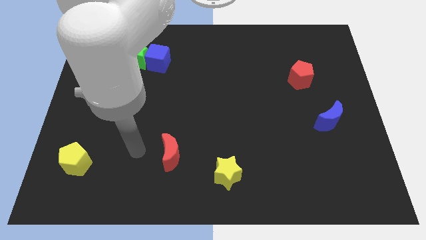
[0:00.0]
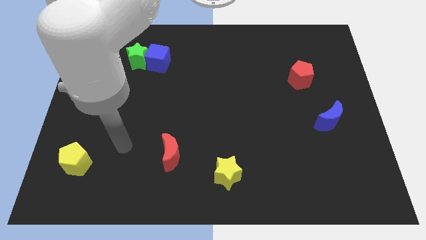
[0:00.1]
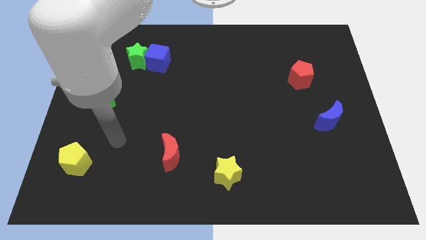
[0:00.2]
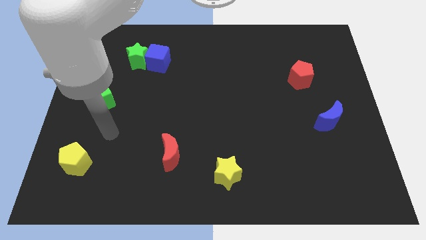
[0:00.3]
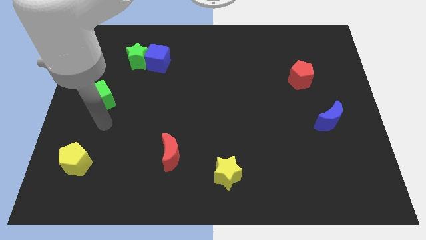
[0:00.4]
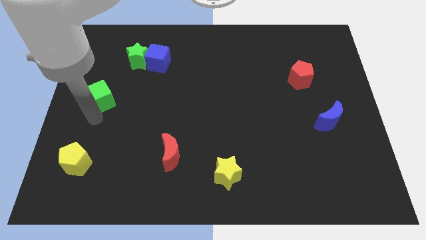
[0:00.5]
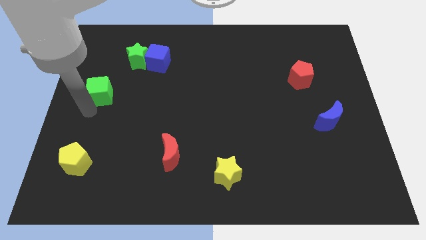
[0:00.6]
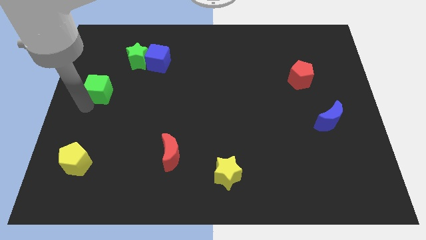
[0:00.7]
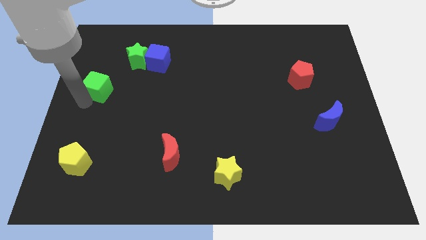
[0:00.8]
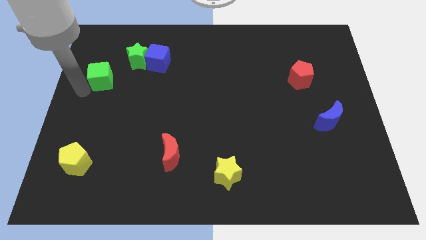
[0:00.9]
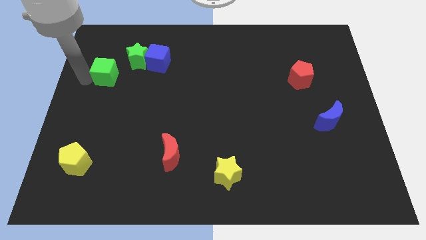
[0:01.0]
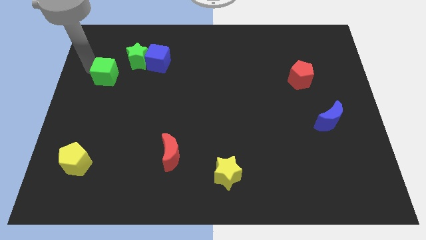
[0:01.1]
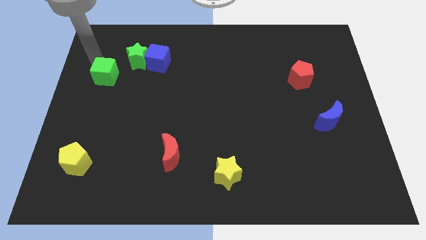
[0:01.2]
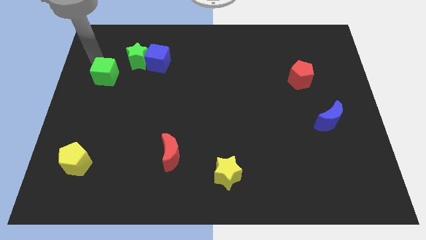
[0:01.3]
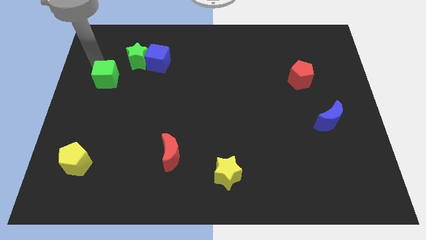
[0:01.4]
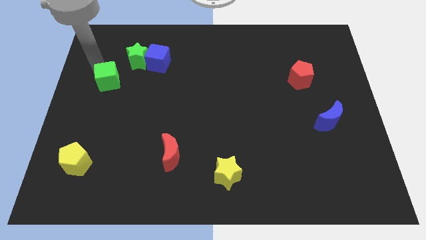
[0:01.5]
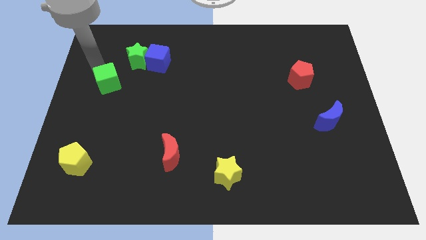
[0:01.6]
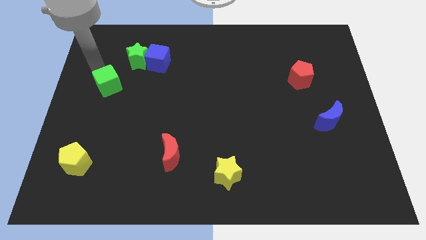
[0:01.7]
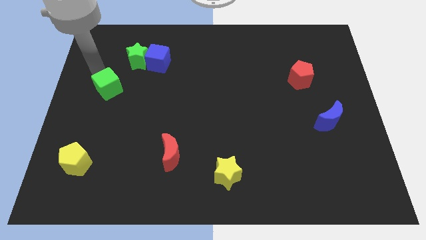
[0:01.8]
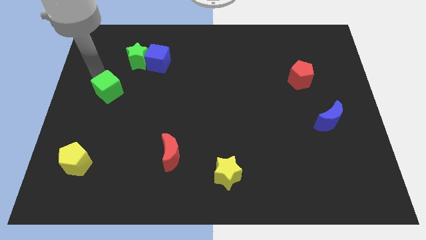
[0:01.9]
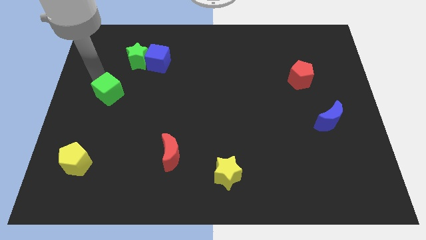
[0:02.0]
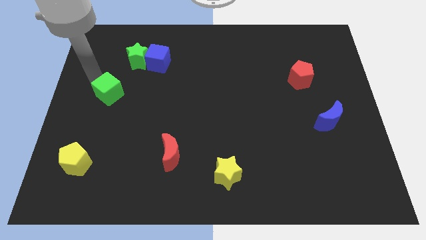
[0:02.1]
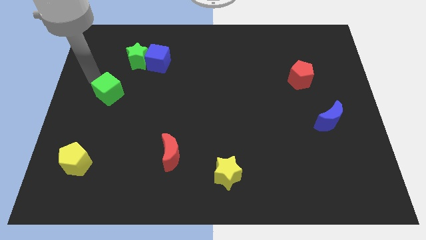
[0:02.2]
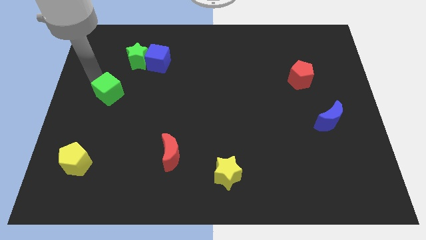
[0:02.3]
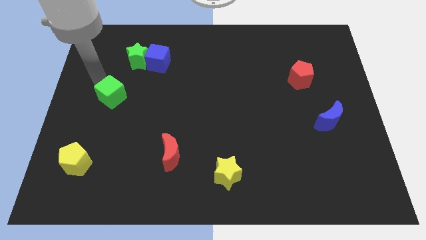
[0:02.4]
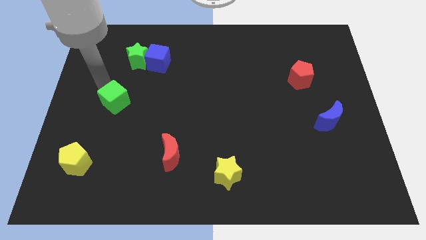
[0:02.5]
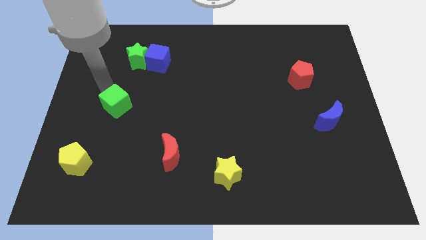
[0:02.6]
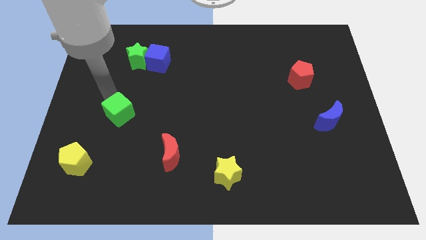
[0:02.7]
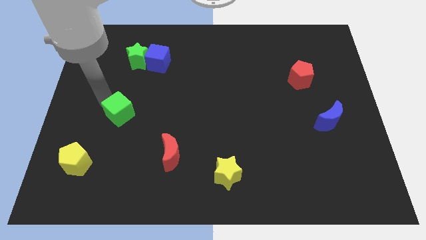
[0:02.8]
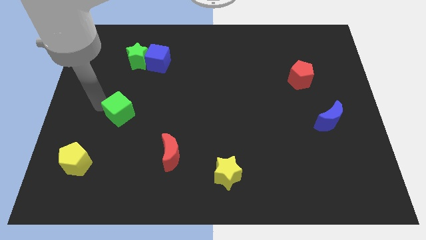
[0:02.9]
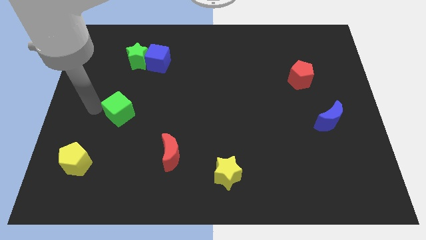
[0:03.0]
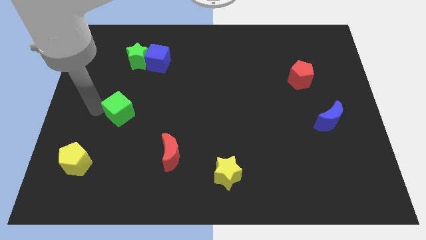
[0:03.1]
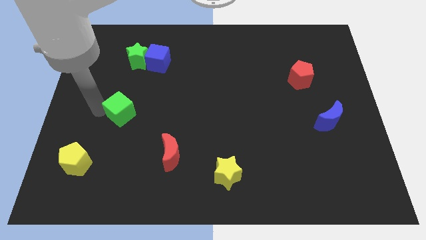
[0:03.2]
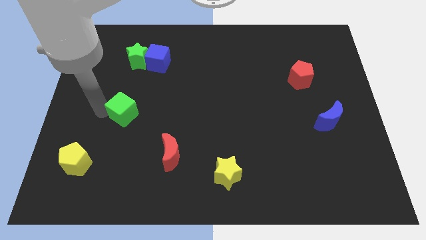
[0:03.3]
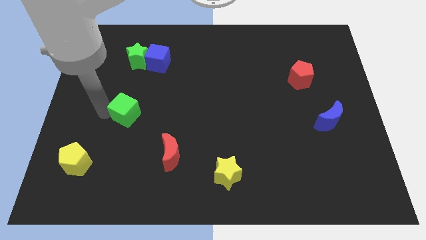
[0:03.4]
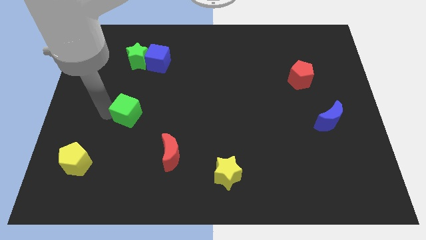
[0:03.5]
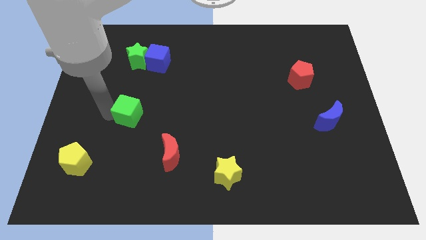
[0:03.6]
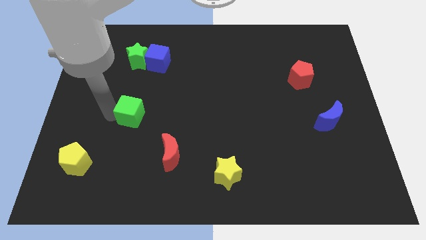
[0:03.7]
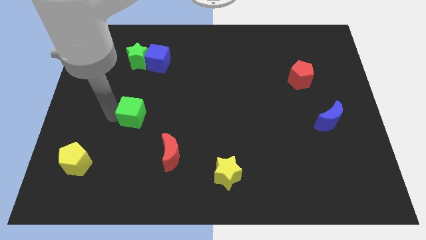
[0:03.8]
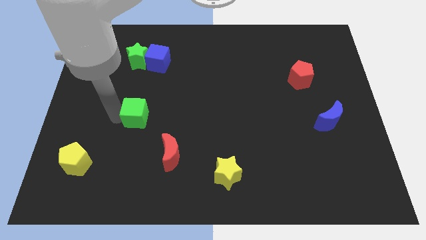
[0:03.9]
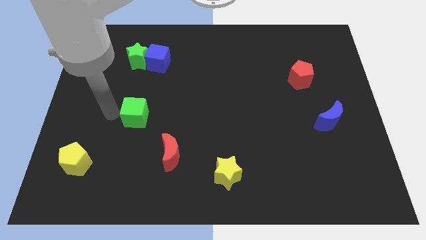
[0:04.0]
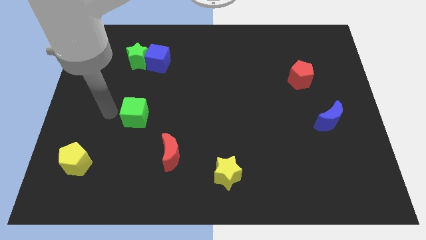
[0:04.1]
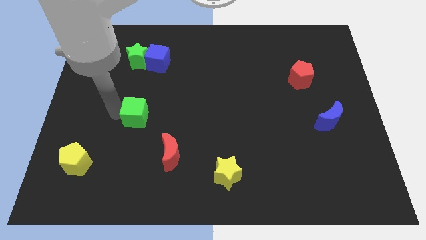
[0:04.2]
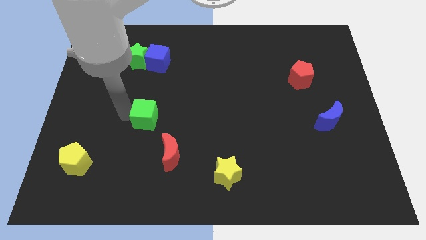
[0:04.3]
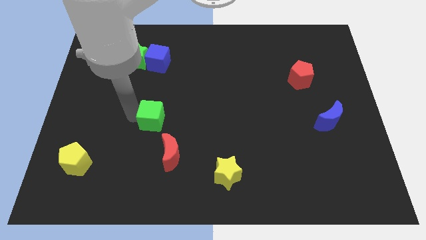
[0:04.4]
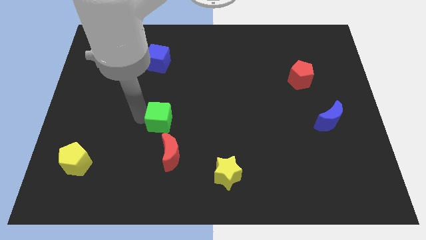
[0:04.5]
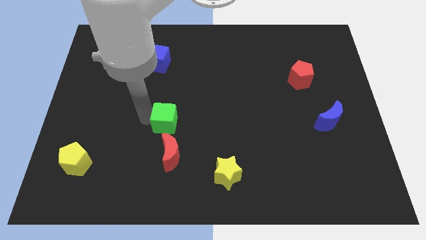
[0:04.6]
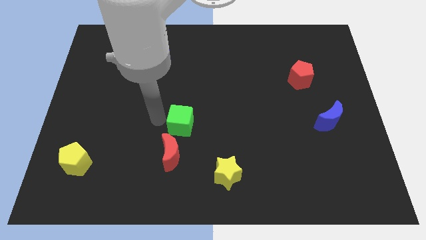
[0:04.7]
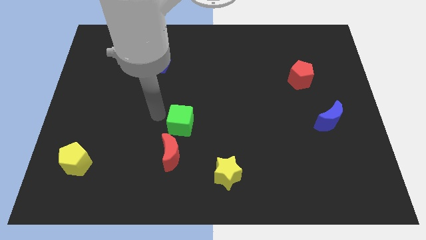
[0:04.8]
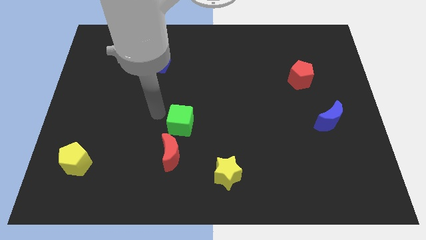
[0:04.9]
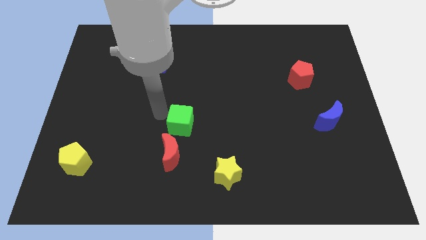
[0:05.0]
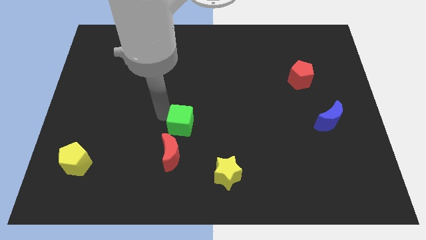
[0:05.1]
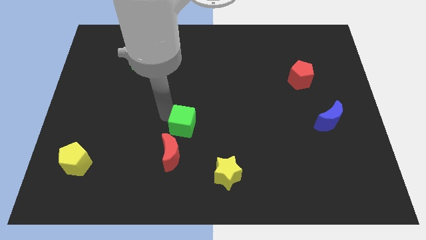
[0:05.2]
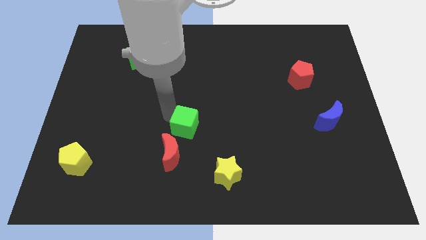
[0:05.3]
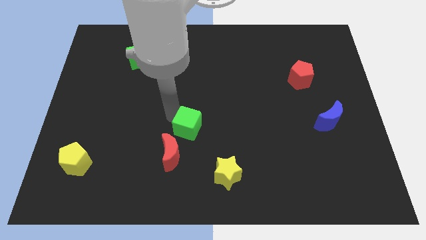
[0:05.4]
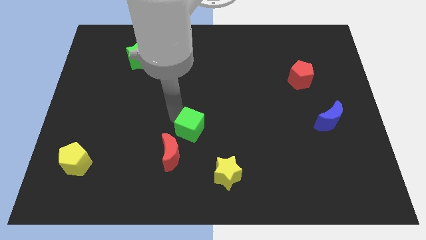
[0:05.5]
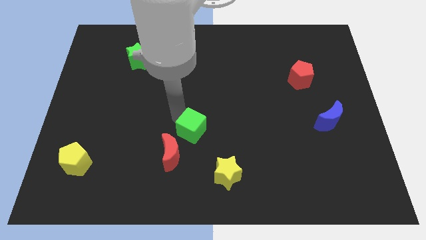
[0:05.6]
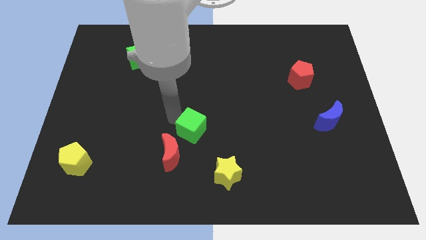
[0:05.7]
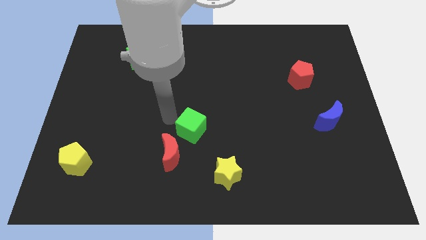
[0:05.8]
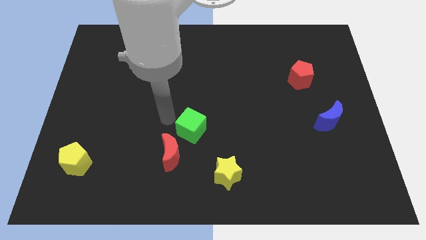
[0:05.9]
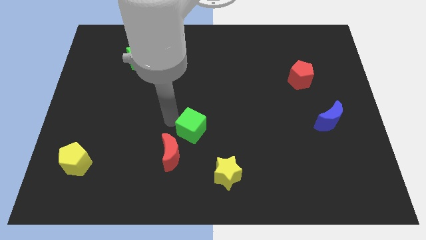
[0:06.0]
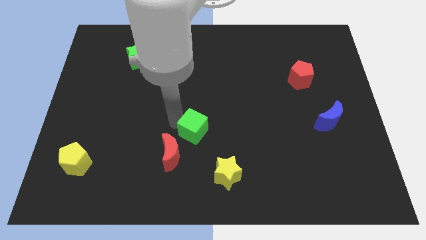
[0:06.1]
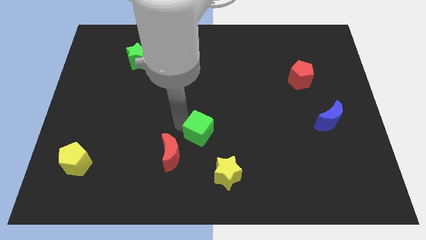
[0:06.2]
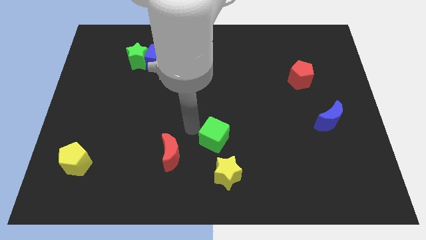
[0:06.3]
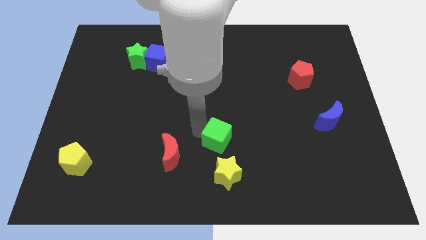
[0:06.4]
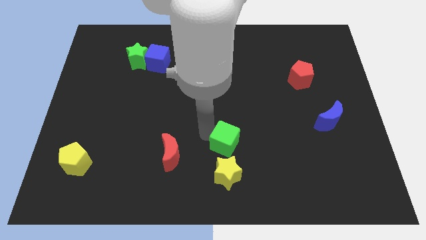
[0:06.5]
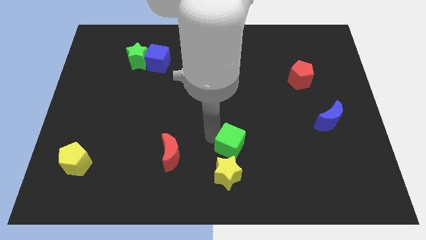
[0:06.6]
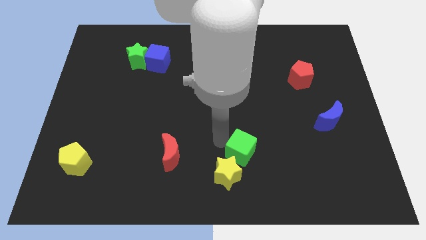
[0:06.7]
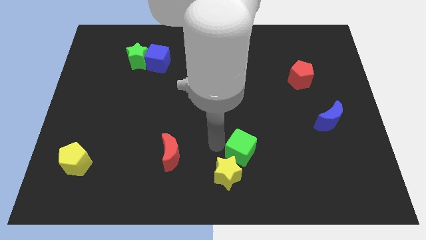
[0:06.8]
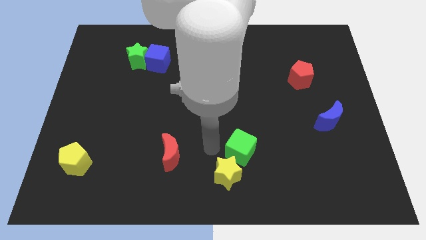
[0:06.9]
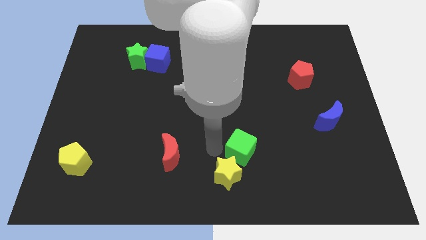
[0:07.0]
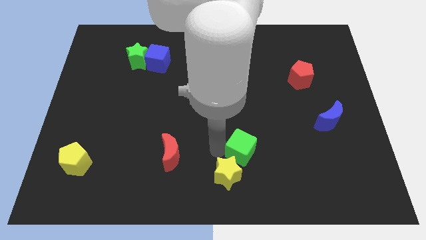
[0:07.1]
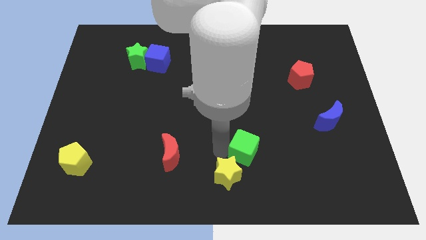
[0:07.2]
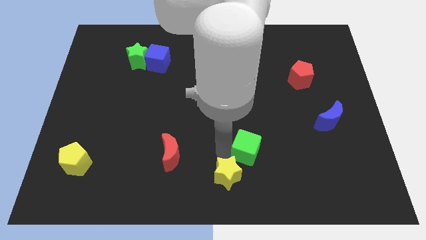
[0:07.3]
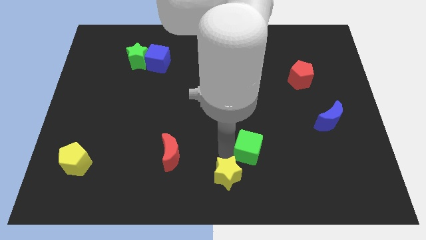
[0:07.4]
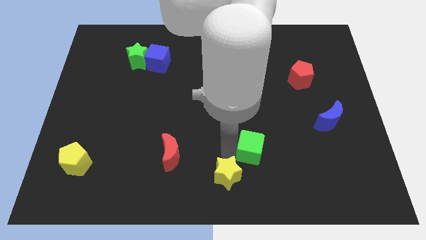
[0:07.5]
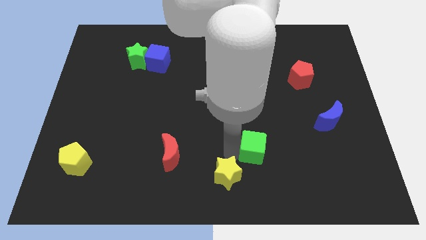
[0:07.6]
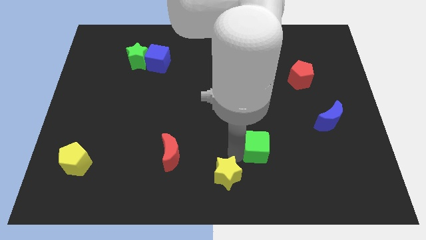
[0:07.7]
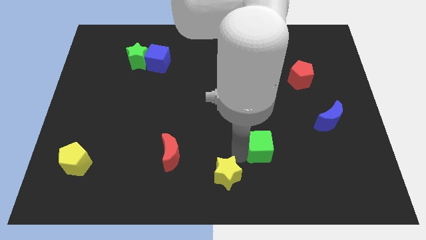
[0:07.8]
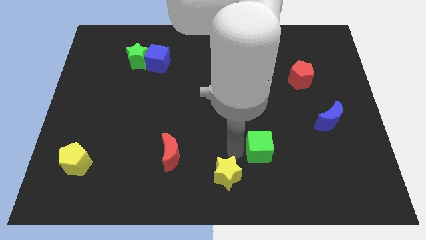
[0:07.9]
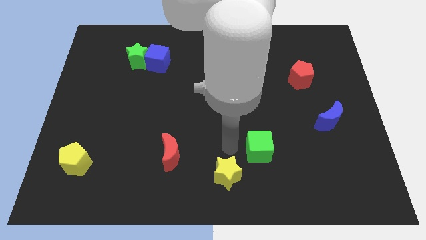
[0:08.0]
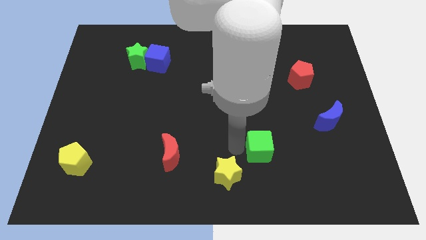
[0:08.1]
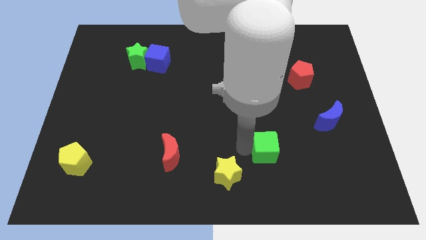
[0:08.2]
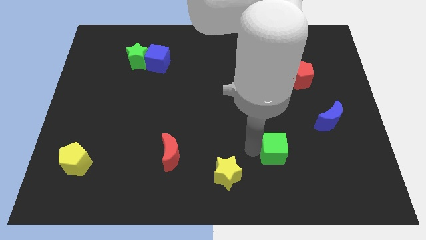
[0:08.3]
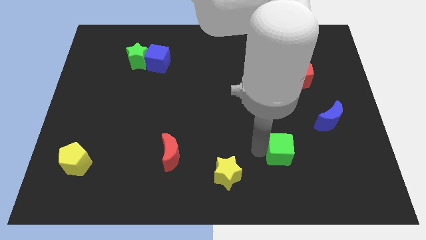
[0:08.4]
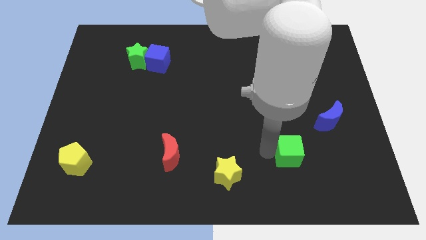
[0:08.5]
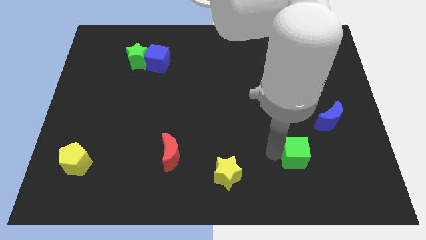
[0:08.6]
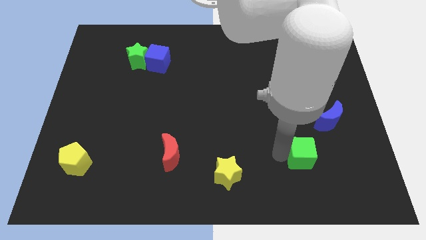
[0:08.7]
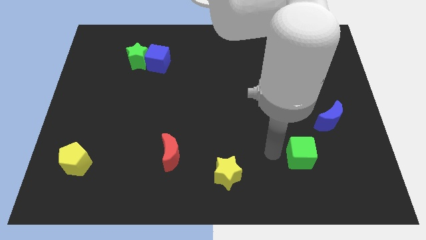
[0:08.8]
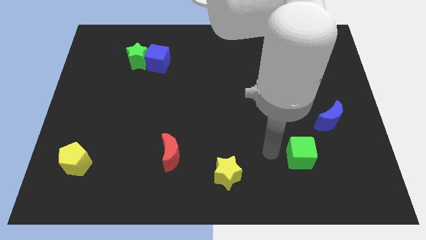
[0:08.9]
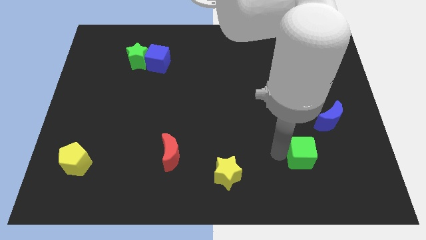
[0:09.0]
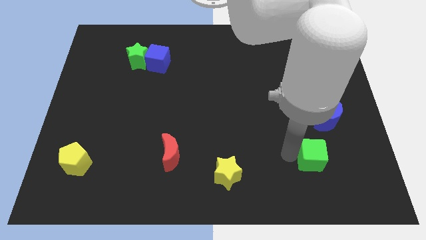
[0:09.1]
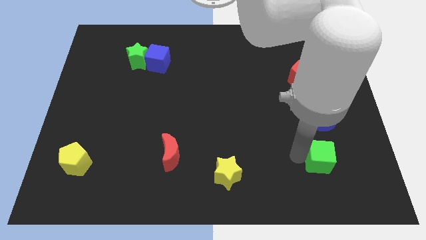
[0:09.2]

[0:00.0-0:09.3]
push the green cube to the bottom side of the blue moon
